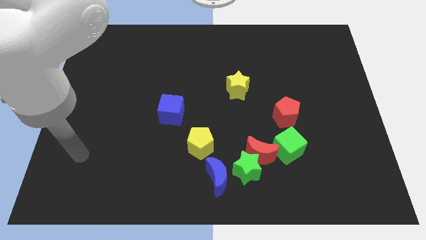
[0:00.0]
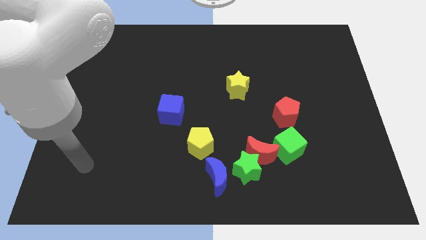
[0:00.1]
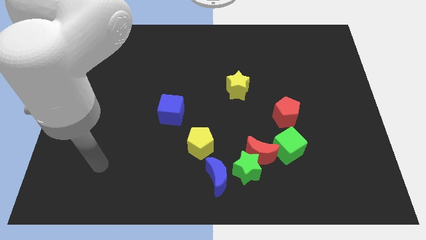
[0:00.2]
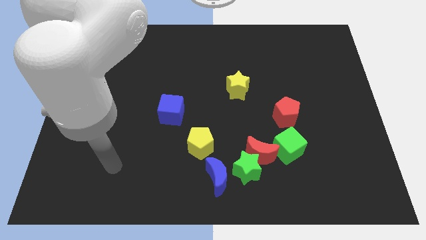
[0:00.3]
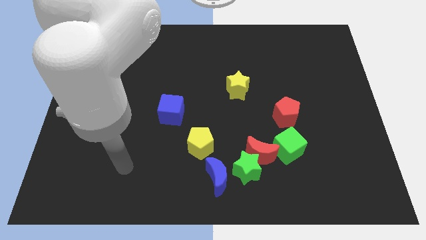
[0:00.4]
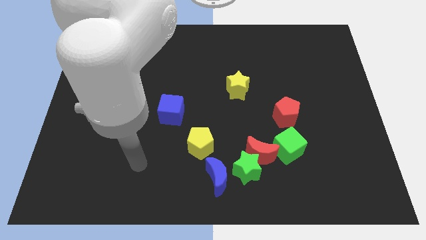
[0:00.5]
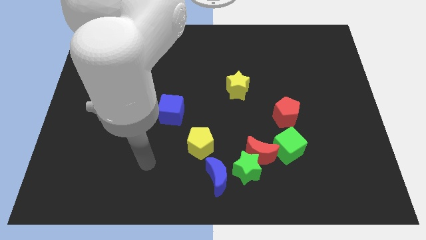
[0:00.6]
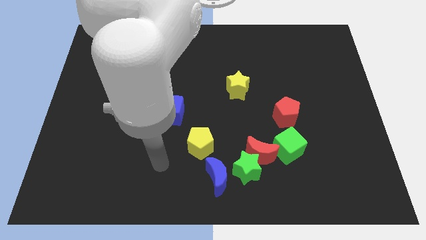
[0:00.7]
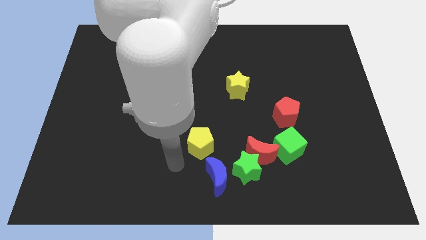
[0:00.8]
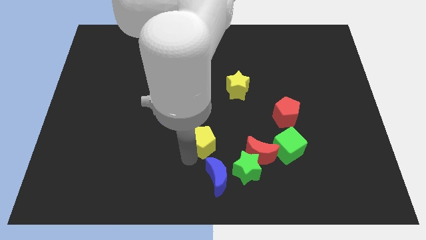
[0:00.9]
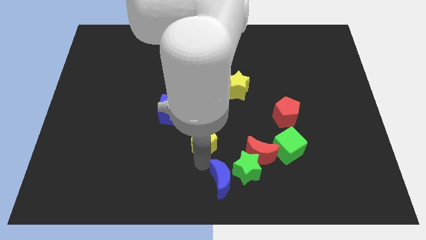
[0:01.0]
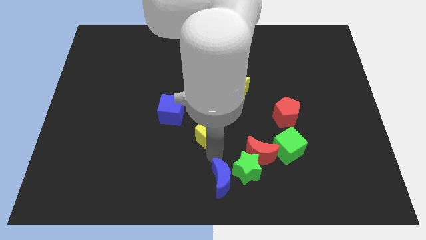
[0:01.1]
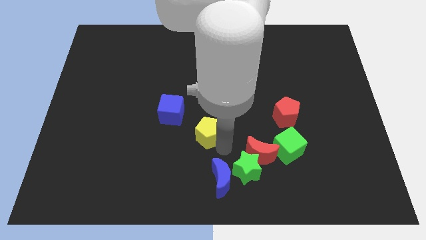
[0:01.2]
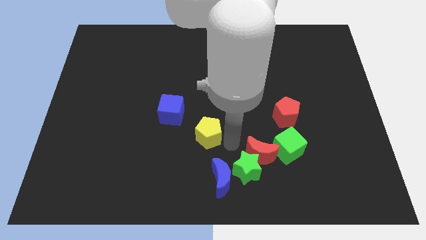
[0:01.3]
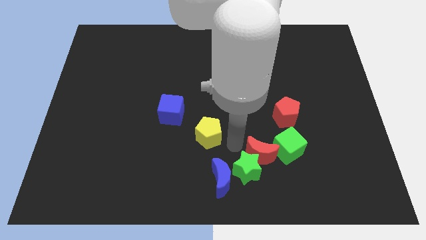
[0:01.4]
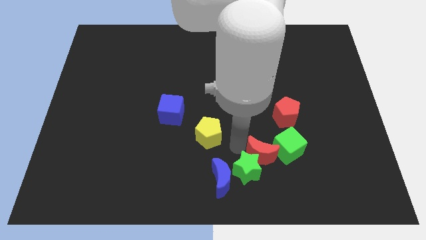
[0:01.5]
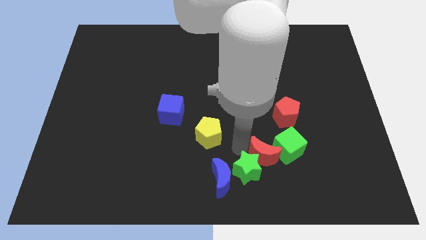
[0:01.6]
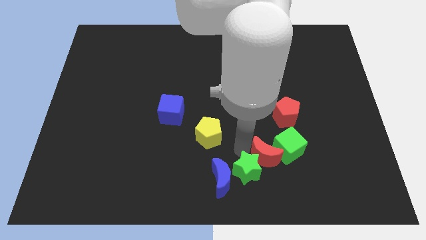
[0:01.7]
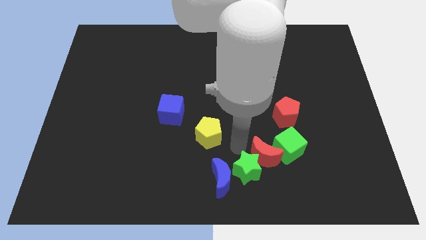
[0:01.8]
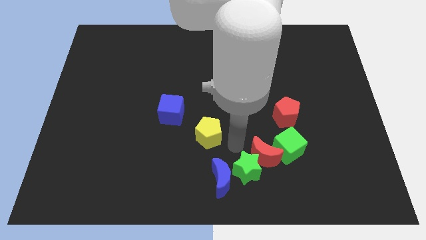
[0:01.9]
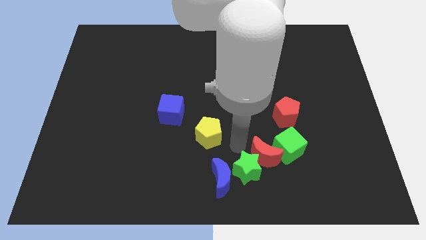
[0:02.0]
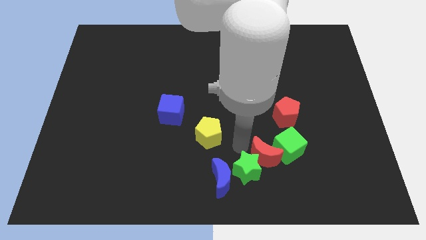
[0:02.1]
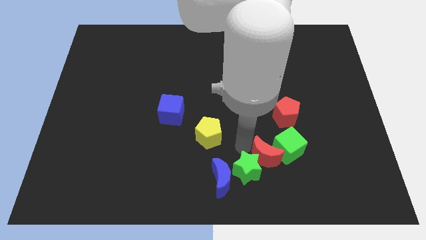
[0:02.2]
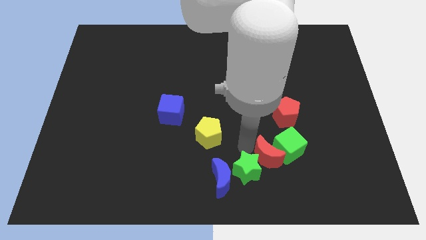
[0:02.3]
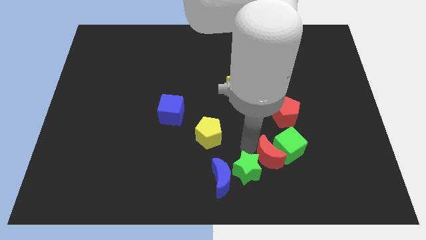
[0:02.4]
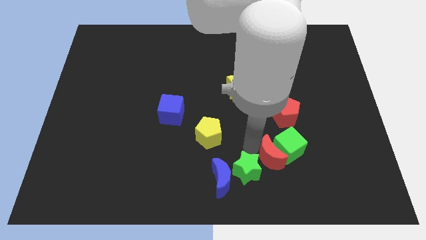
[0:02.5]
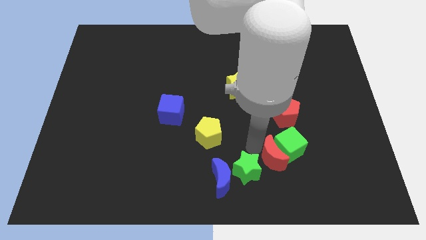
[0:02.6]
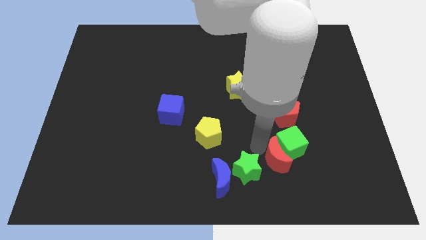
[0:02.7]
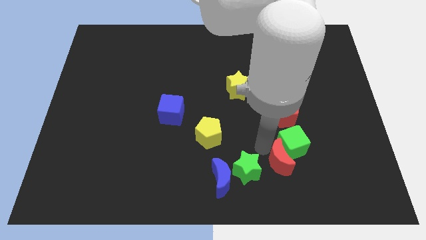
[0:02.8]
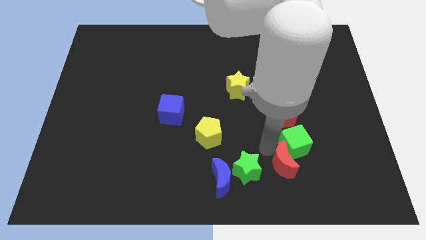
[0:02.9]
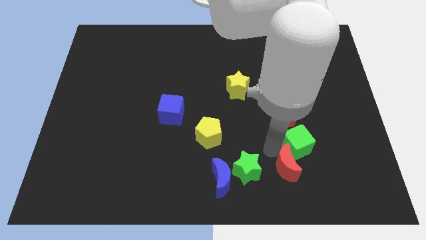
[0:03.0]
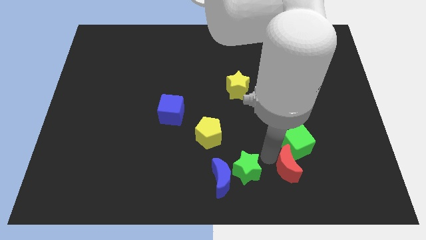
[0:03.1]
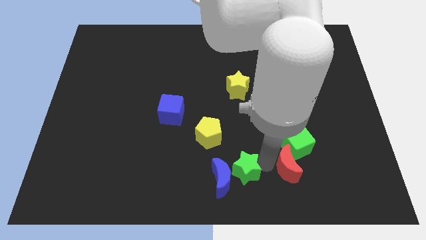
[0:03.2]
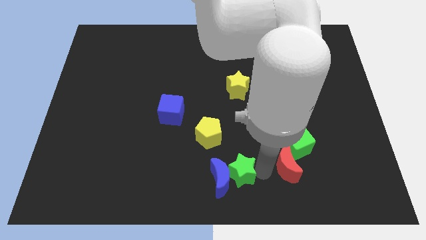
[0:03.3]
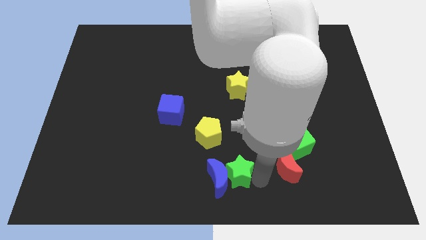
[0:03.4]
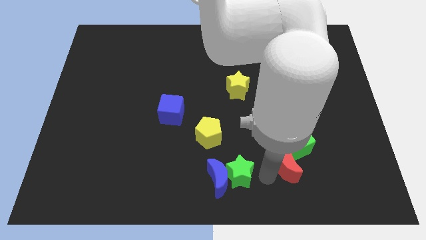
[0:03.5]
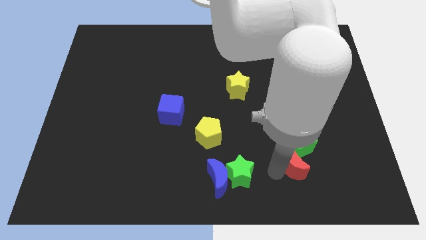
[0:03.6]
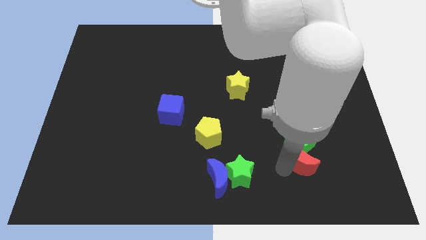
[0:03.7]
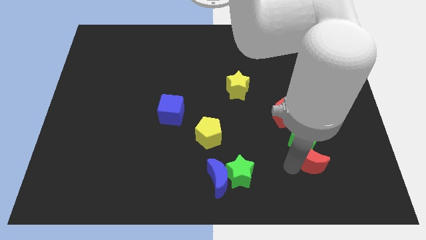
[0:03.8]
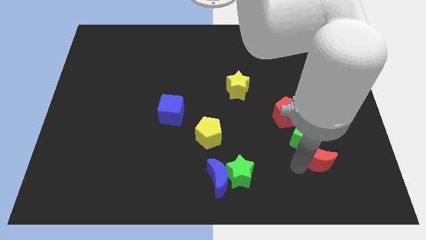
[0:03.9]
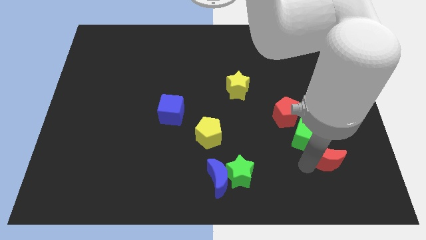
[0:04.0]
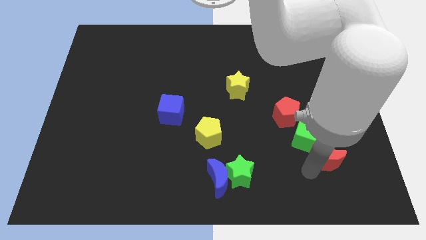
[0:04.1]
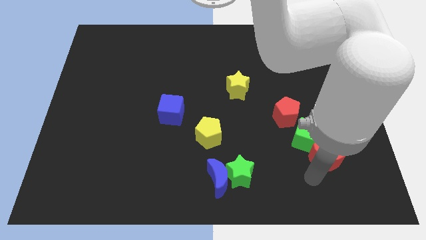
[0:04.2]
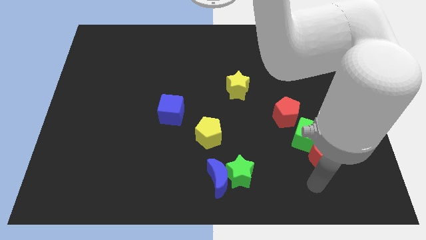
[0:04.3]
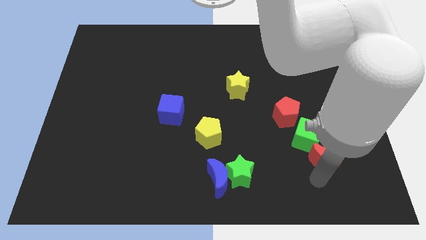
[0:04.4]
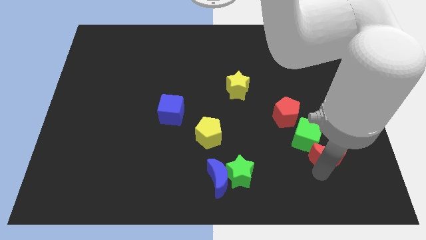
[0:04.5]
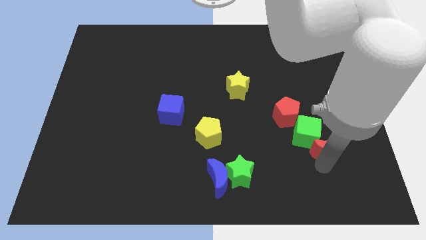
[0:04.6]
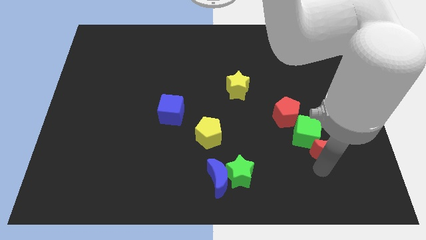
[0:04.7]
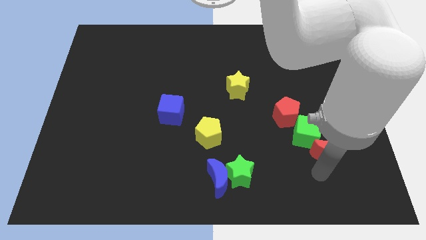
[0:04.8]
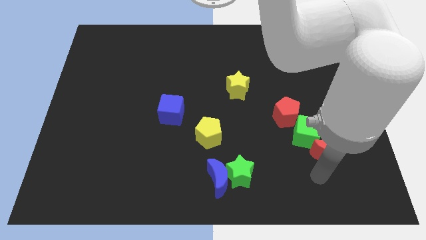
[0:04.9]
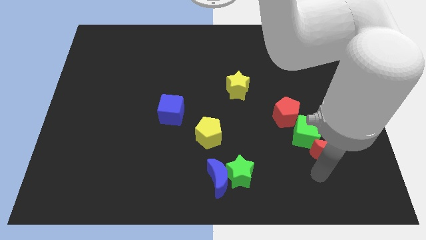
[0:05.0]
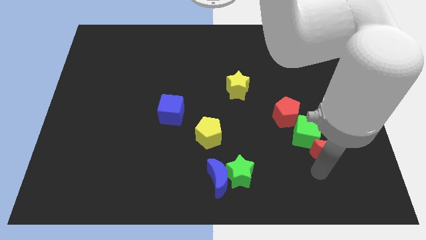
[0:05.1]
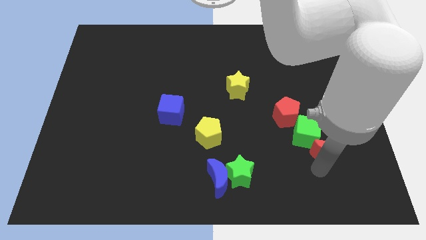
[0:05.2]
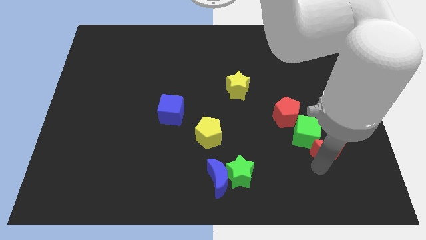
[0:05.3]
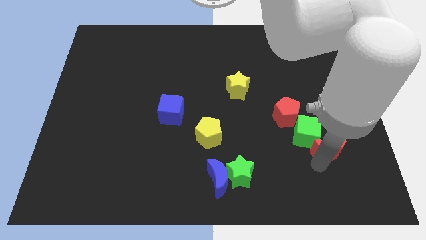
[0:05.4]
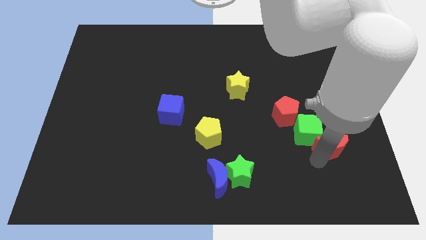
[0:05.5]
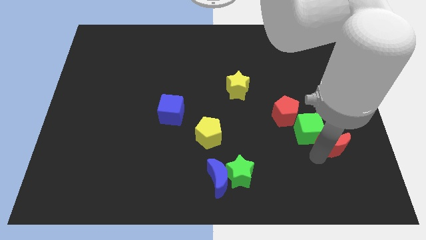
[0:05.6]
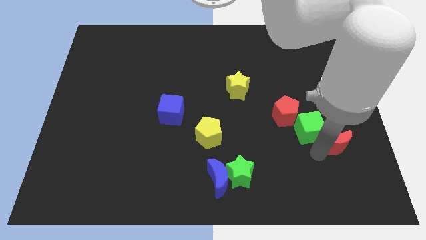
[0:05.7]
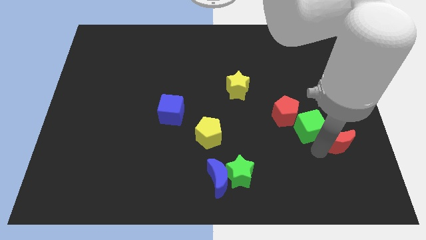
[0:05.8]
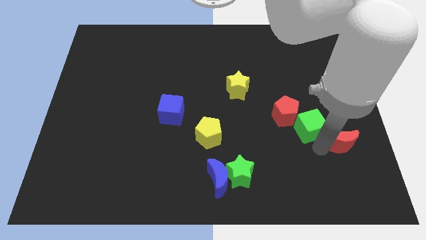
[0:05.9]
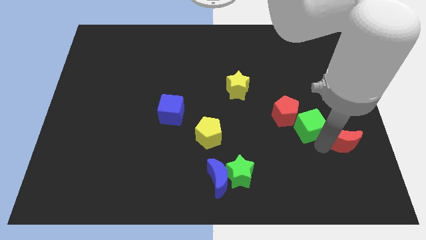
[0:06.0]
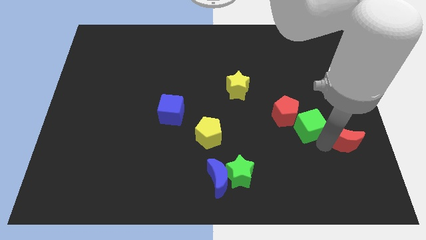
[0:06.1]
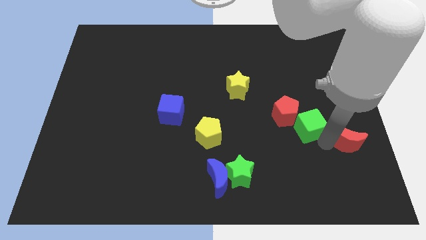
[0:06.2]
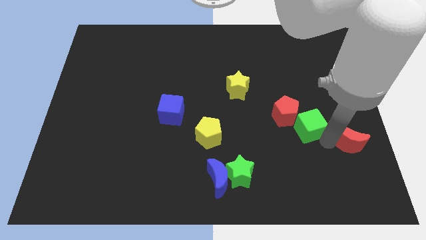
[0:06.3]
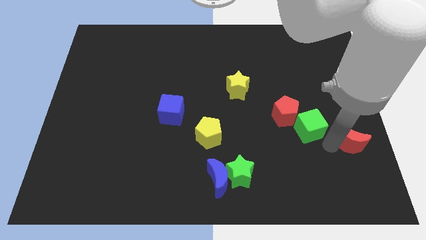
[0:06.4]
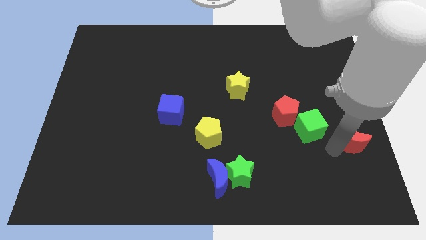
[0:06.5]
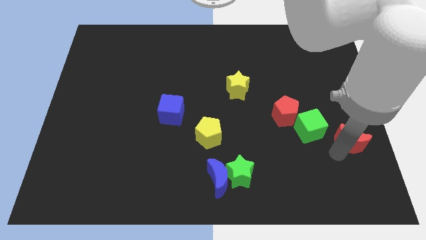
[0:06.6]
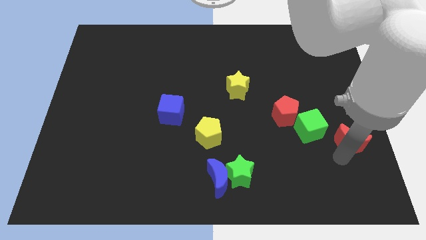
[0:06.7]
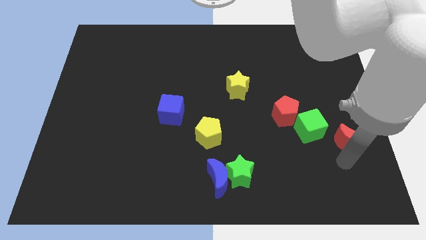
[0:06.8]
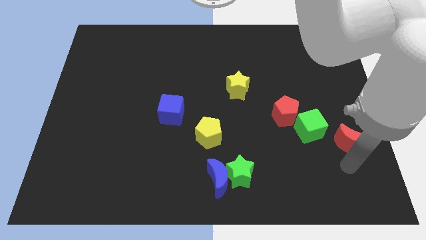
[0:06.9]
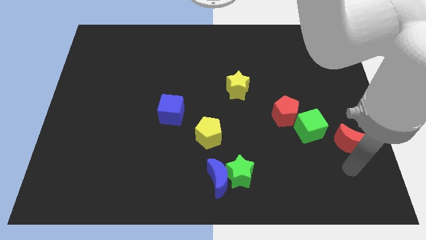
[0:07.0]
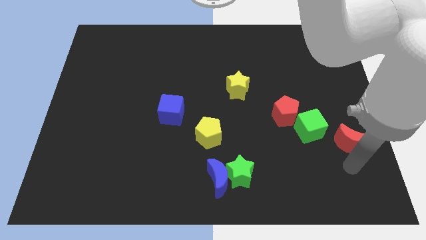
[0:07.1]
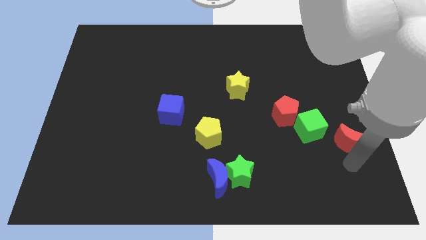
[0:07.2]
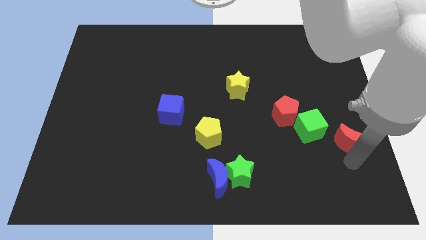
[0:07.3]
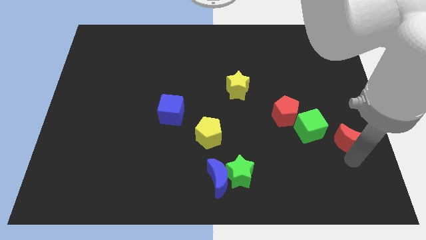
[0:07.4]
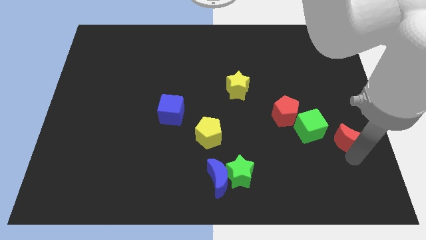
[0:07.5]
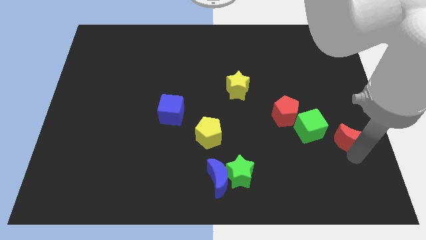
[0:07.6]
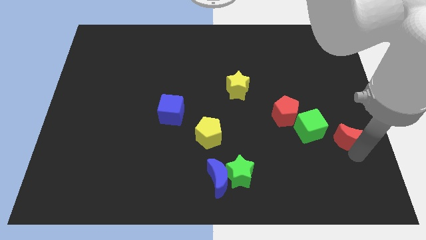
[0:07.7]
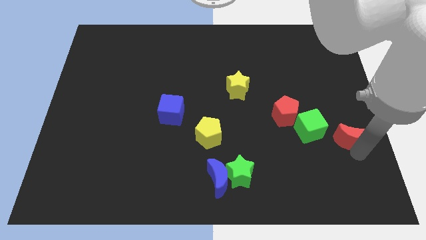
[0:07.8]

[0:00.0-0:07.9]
put the red moon to the right side of the board
